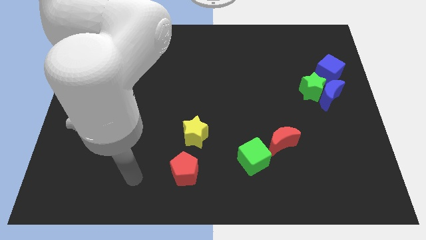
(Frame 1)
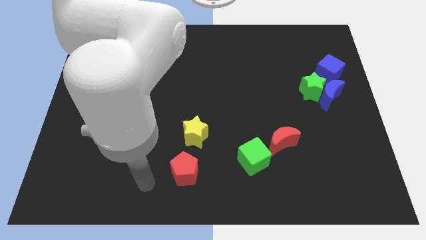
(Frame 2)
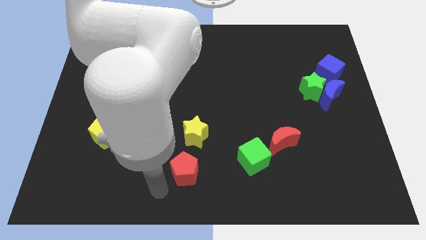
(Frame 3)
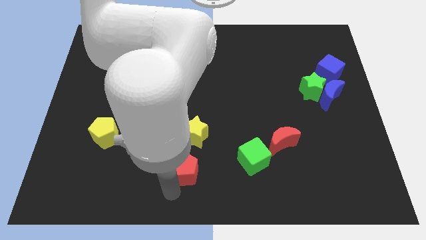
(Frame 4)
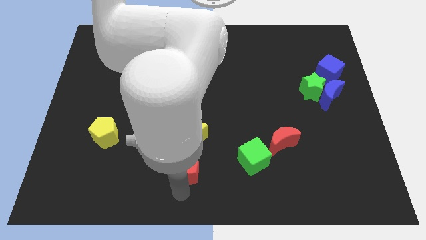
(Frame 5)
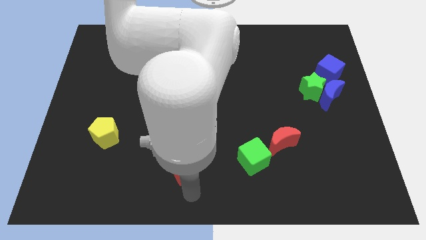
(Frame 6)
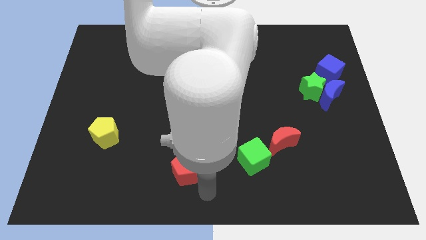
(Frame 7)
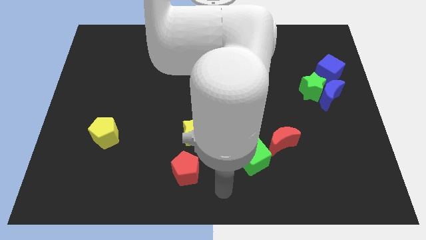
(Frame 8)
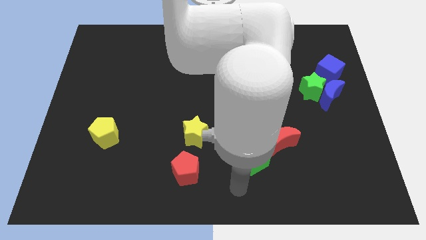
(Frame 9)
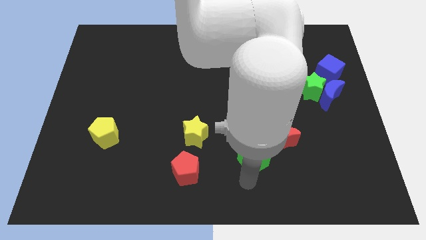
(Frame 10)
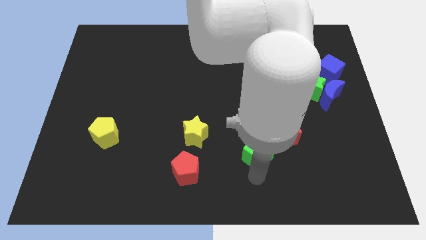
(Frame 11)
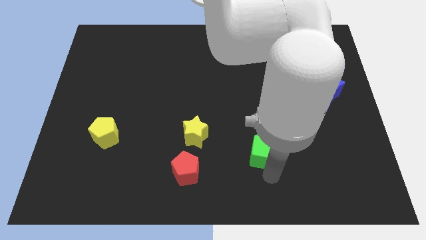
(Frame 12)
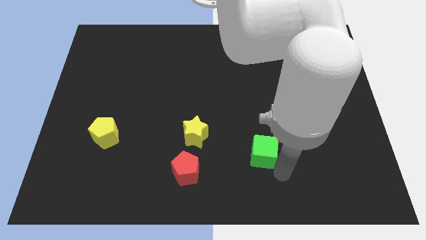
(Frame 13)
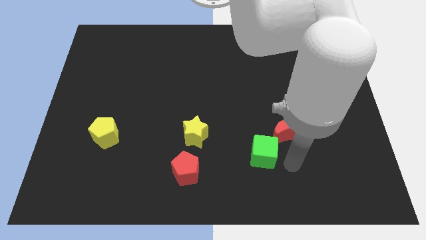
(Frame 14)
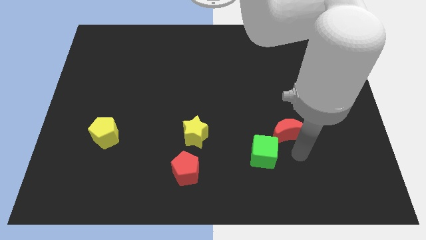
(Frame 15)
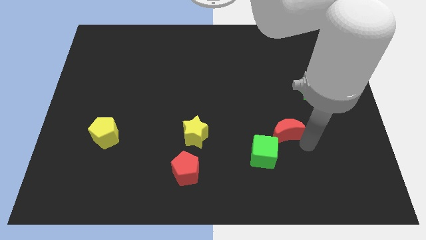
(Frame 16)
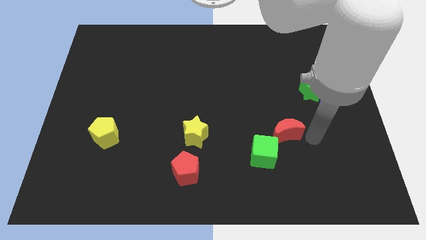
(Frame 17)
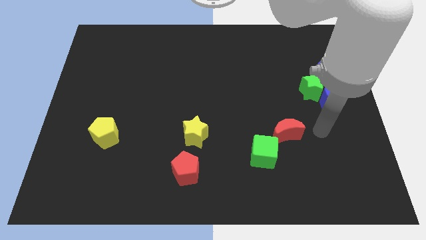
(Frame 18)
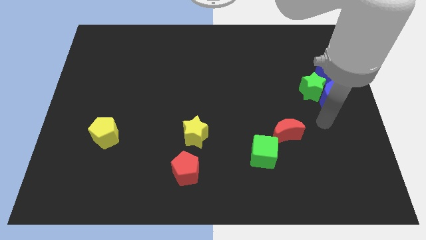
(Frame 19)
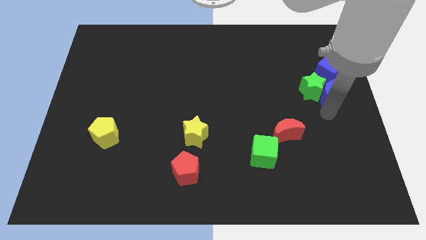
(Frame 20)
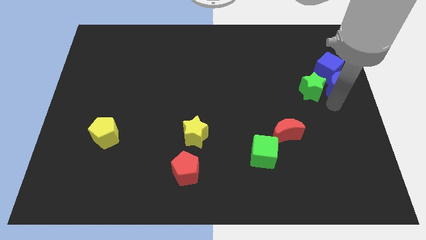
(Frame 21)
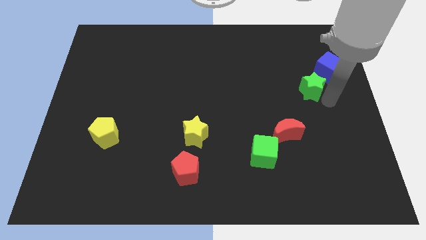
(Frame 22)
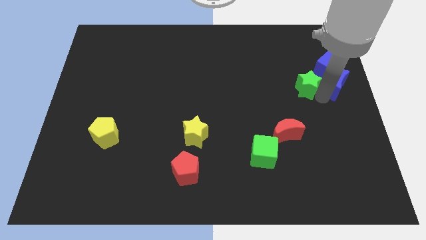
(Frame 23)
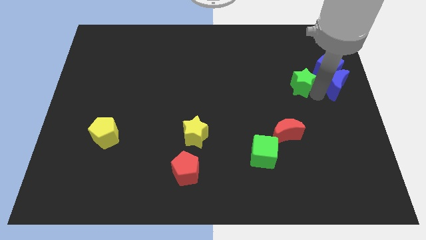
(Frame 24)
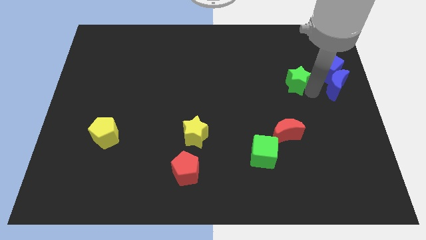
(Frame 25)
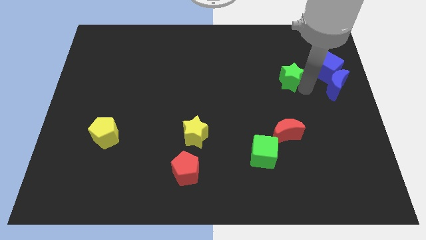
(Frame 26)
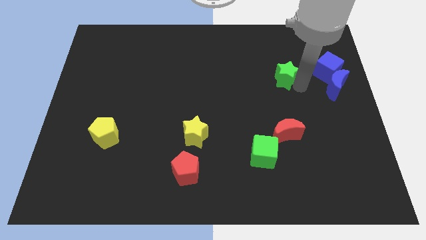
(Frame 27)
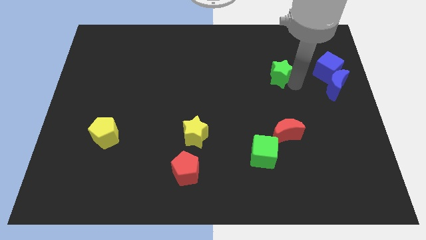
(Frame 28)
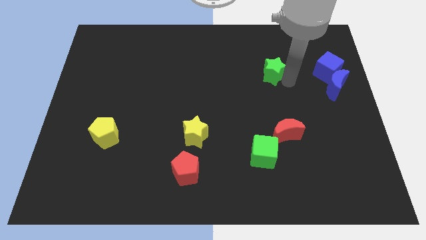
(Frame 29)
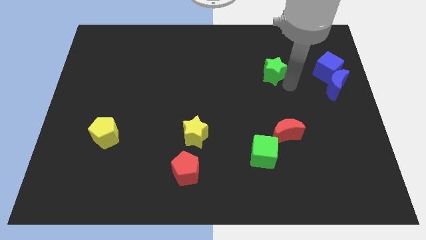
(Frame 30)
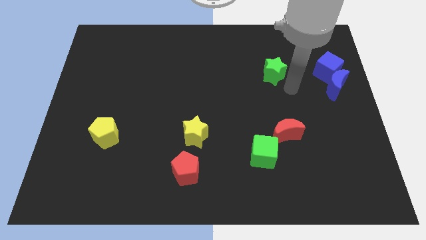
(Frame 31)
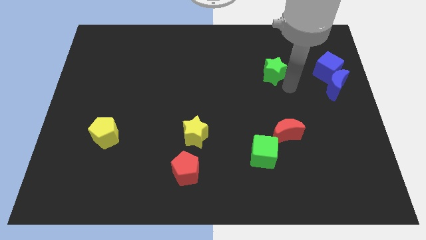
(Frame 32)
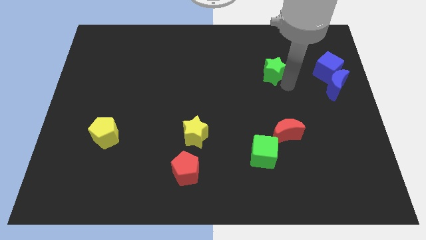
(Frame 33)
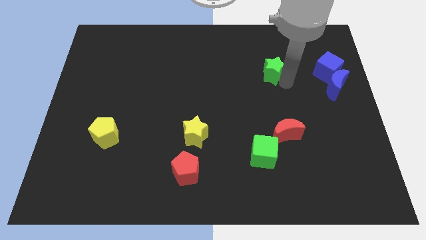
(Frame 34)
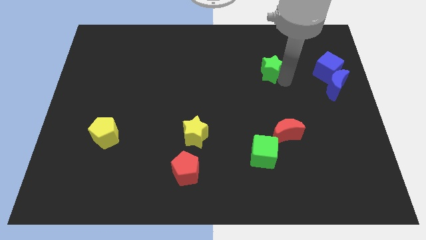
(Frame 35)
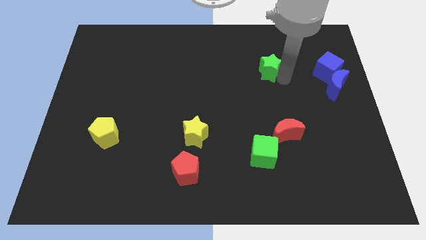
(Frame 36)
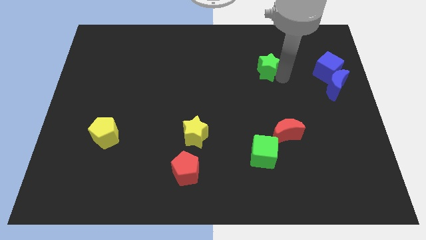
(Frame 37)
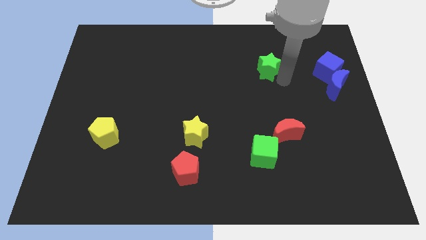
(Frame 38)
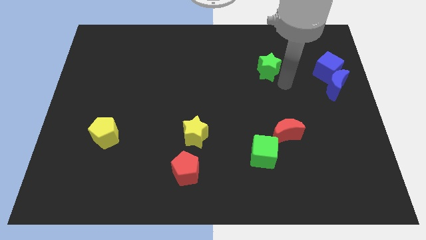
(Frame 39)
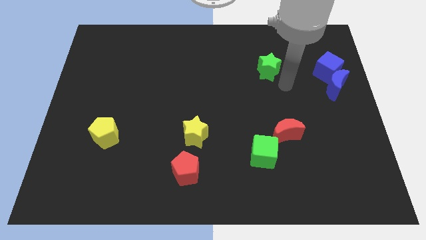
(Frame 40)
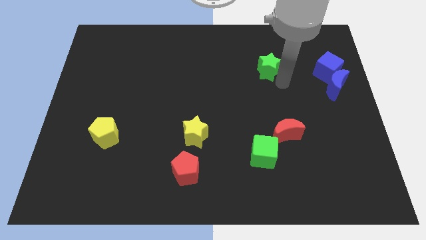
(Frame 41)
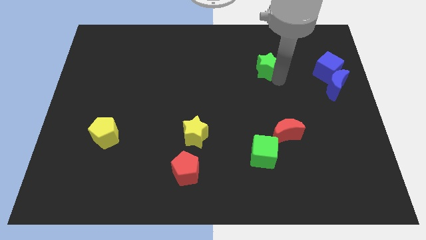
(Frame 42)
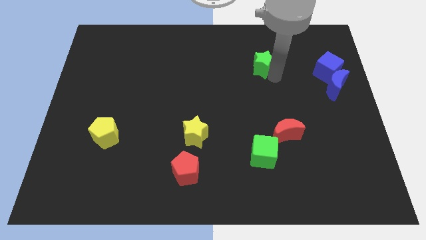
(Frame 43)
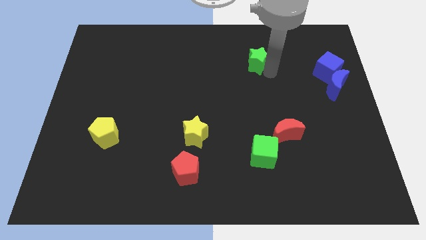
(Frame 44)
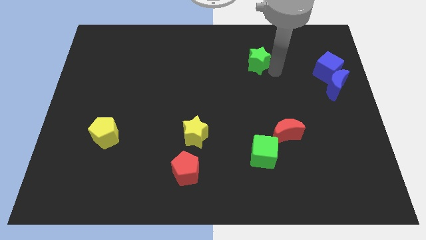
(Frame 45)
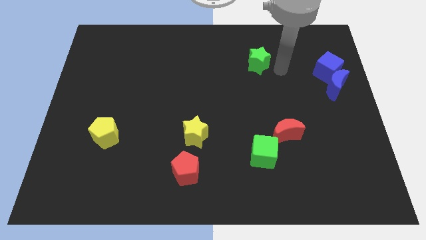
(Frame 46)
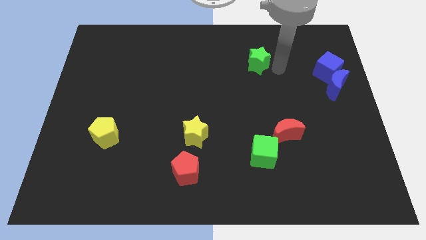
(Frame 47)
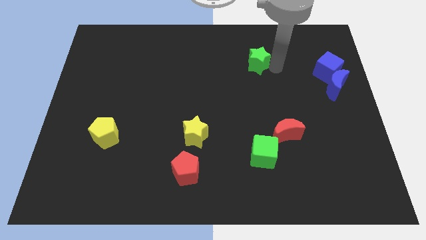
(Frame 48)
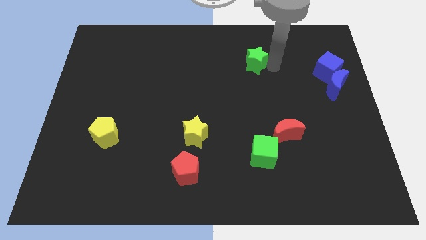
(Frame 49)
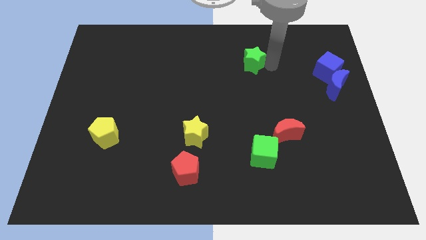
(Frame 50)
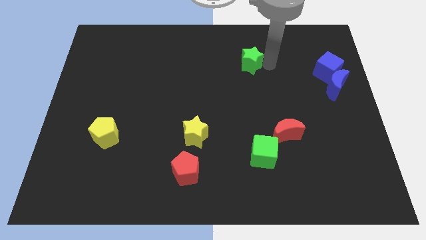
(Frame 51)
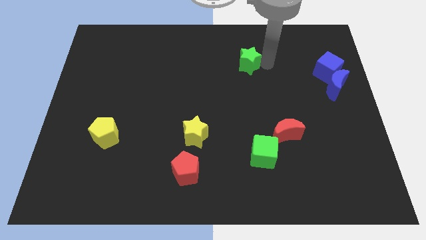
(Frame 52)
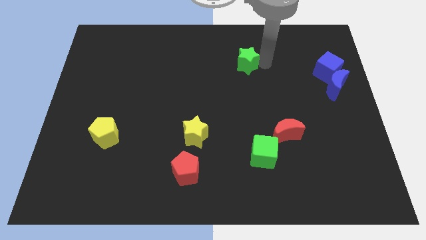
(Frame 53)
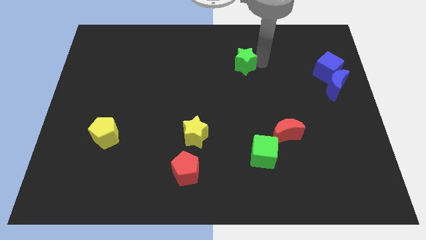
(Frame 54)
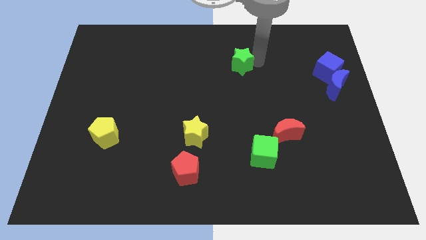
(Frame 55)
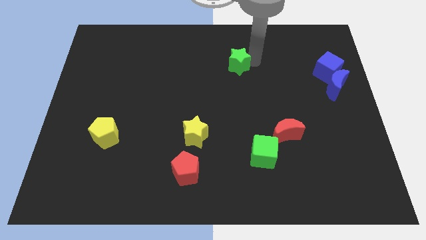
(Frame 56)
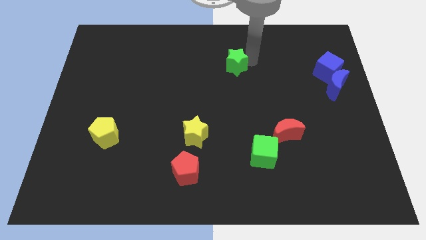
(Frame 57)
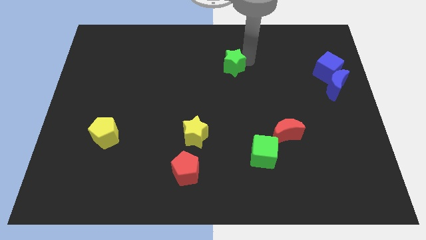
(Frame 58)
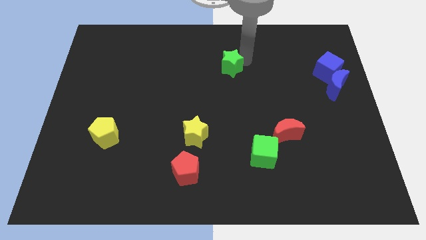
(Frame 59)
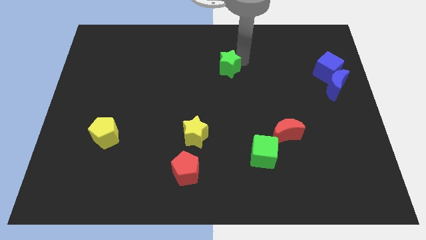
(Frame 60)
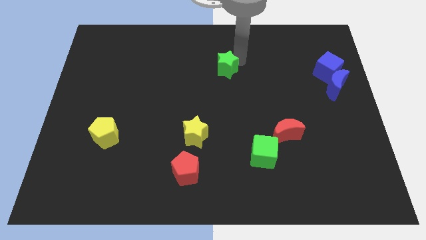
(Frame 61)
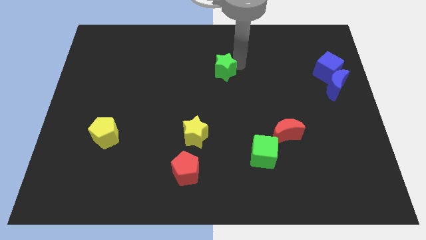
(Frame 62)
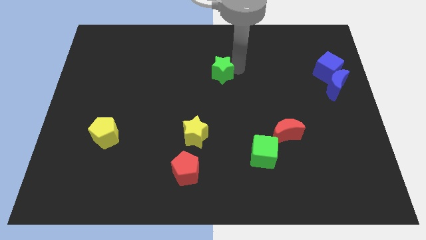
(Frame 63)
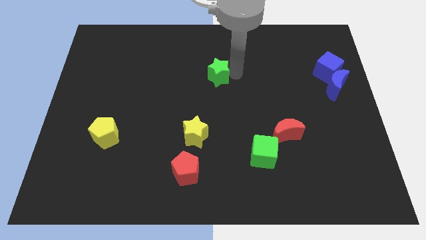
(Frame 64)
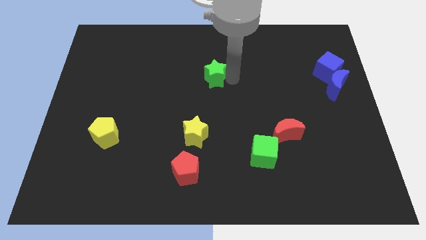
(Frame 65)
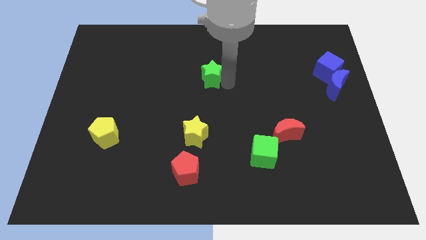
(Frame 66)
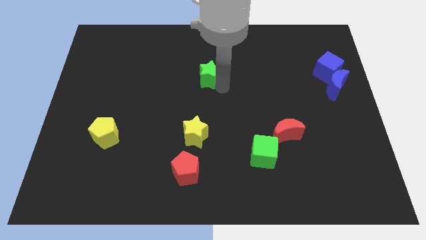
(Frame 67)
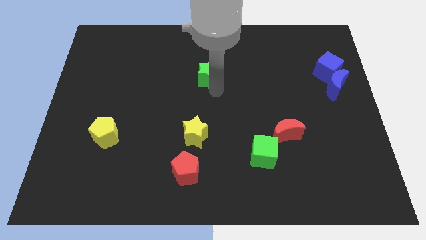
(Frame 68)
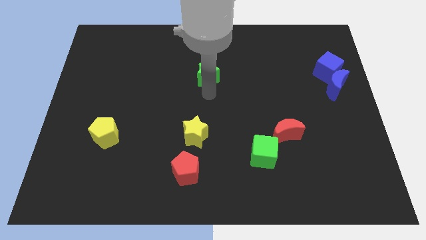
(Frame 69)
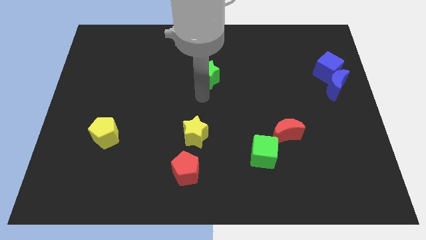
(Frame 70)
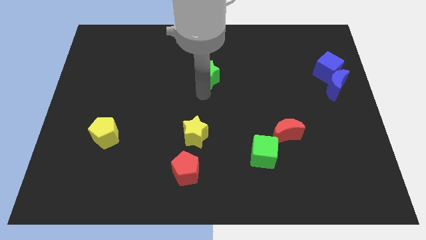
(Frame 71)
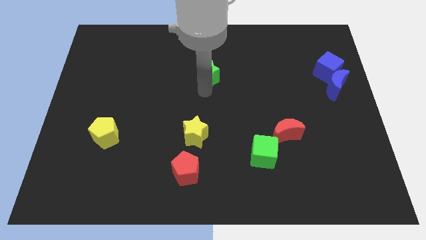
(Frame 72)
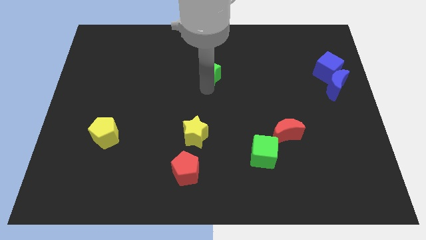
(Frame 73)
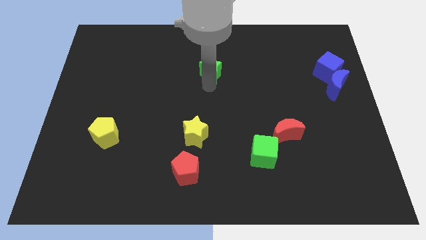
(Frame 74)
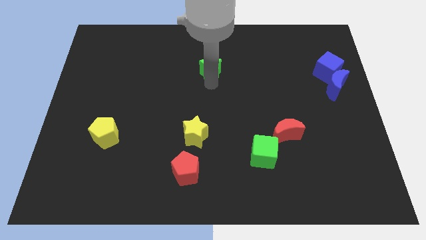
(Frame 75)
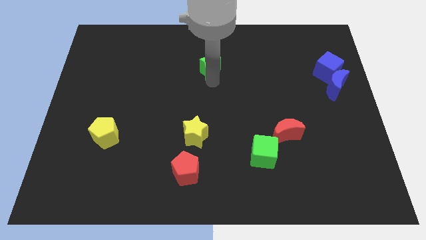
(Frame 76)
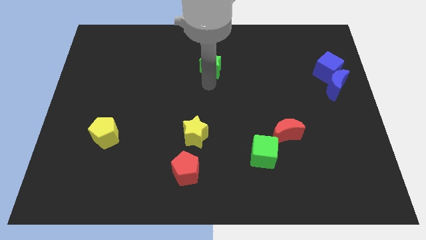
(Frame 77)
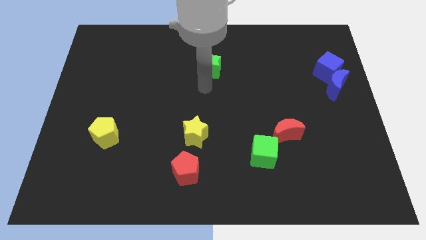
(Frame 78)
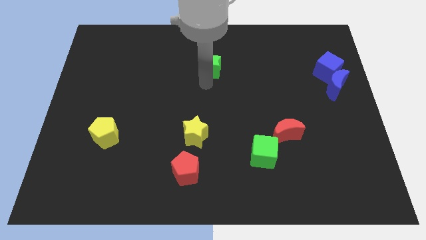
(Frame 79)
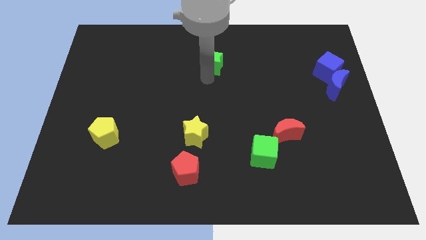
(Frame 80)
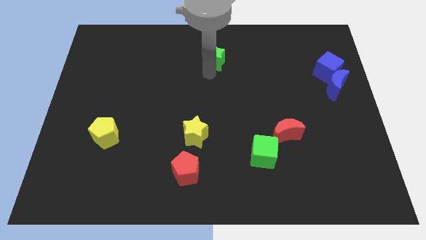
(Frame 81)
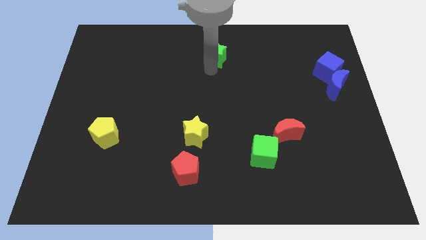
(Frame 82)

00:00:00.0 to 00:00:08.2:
slide the green star to the towards your base
